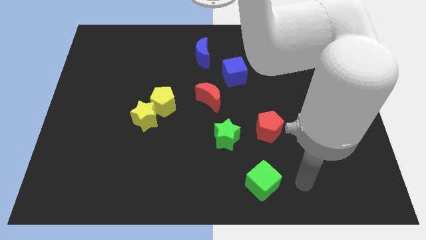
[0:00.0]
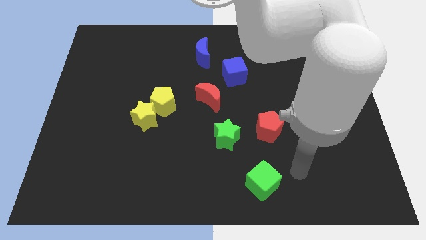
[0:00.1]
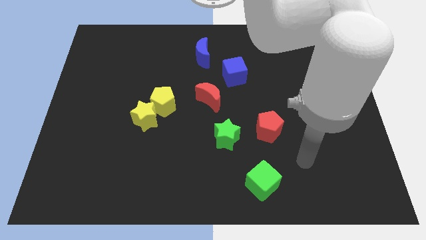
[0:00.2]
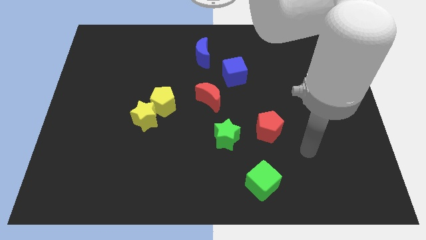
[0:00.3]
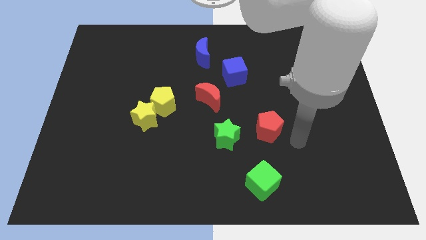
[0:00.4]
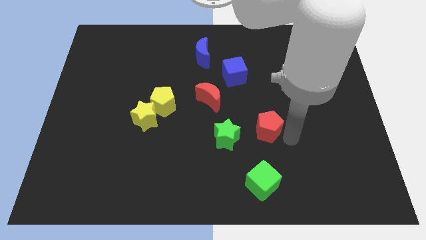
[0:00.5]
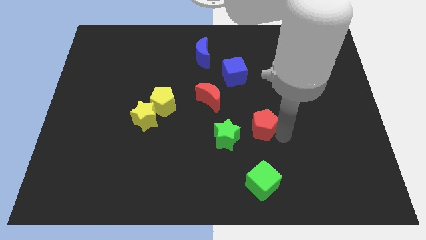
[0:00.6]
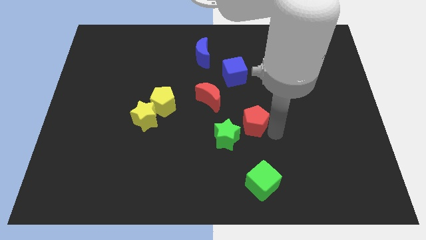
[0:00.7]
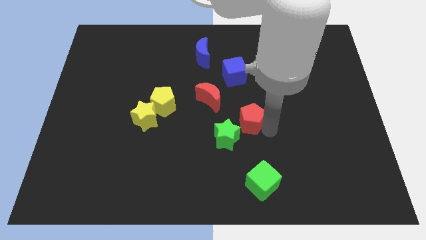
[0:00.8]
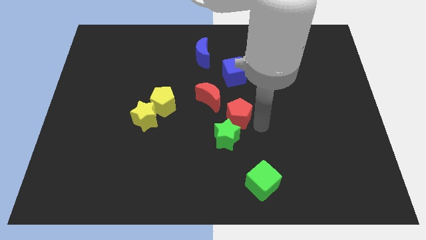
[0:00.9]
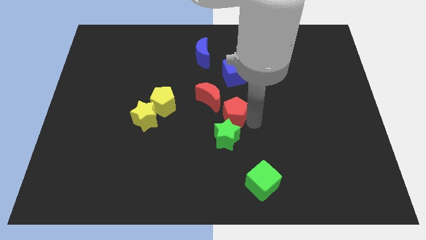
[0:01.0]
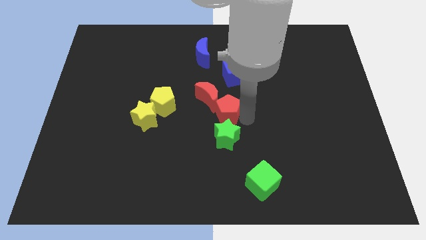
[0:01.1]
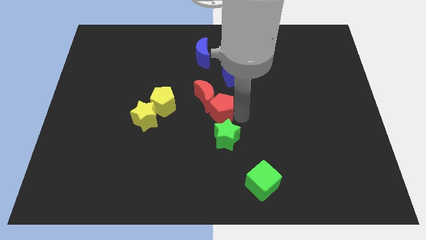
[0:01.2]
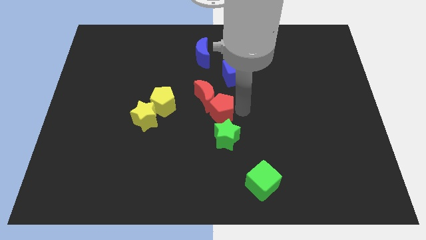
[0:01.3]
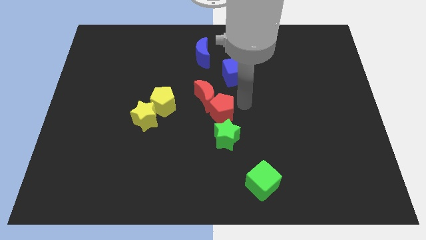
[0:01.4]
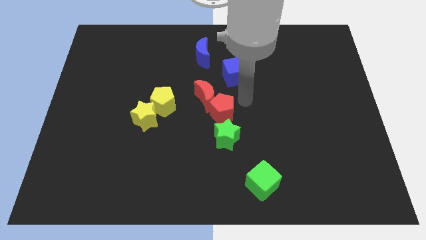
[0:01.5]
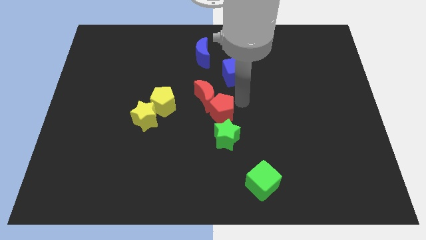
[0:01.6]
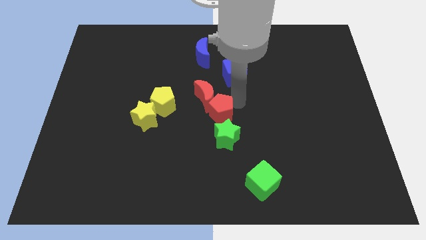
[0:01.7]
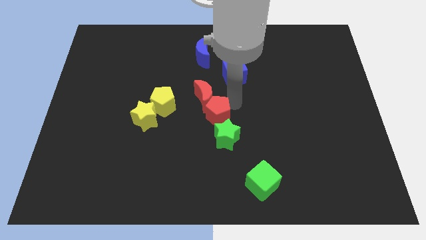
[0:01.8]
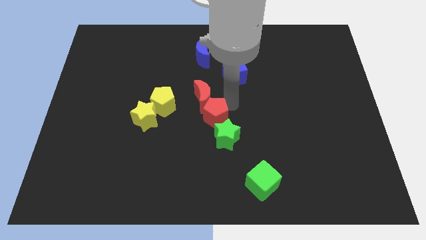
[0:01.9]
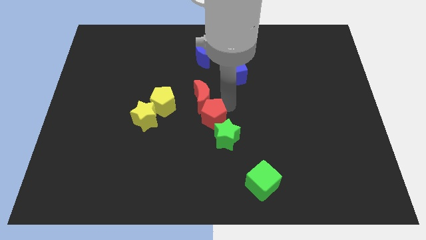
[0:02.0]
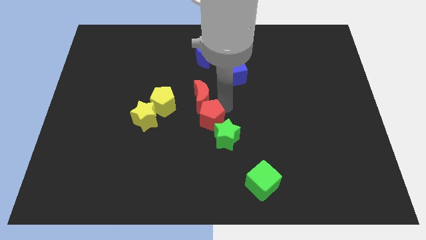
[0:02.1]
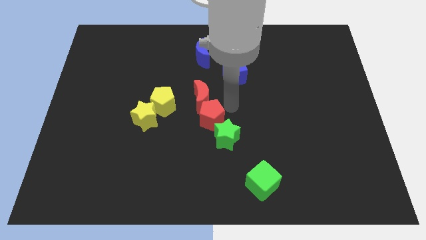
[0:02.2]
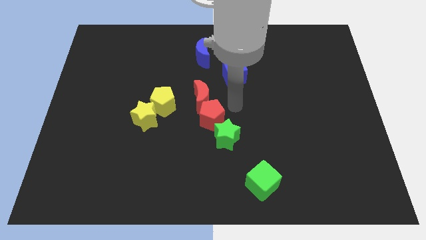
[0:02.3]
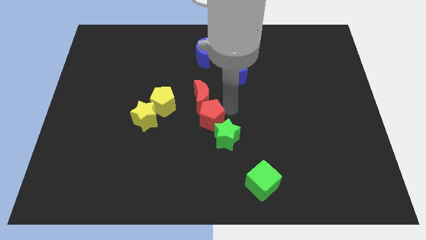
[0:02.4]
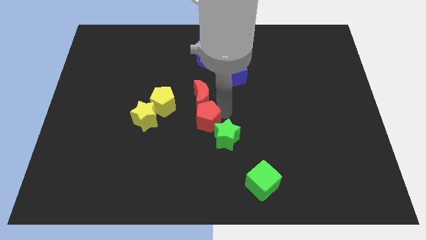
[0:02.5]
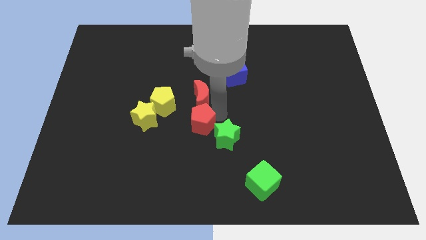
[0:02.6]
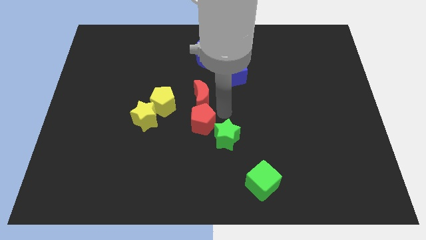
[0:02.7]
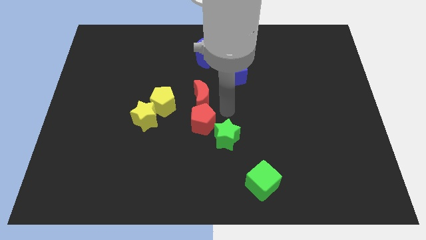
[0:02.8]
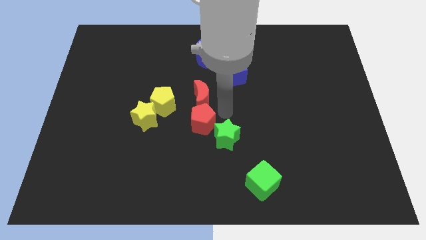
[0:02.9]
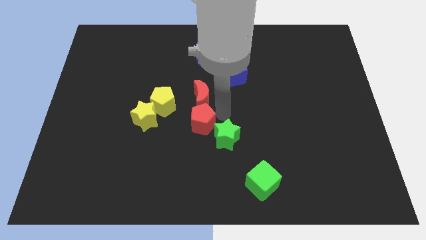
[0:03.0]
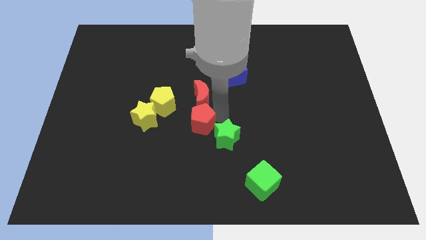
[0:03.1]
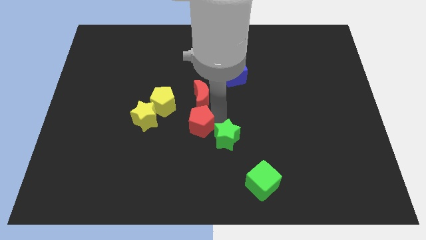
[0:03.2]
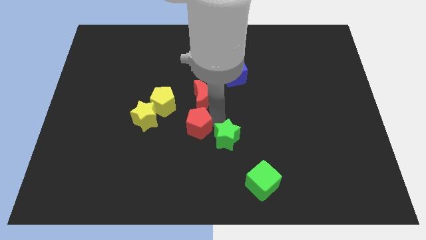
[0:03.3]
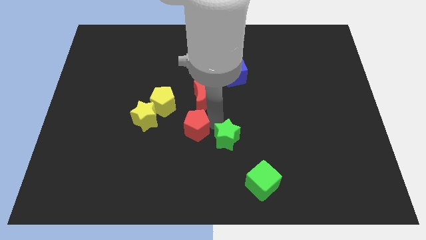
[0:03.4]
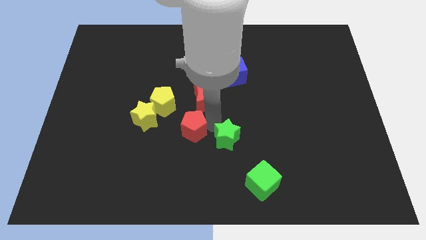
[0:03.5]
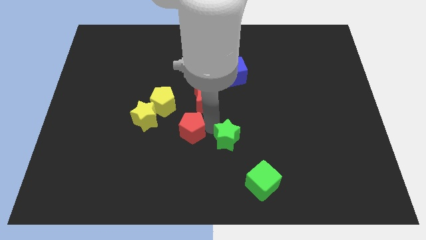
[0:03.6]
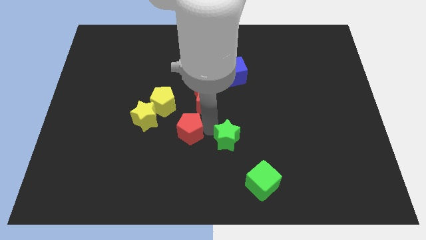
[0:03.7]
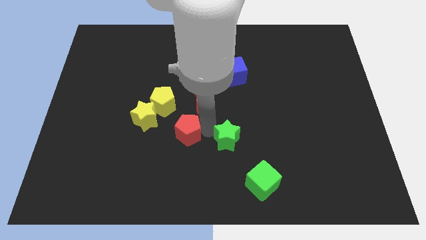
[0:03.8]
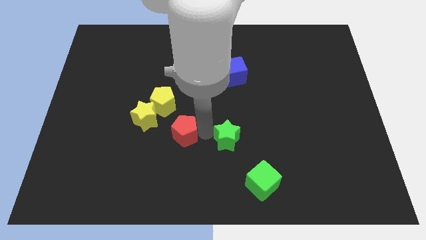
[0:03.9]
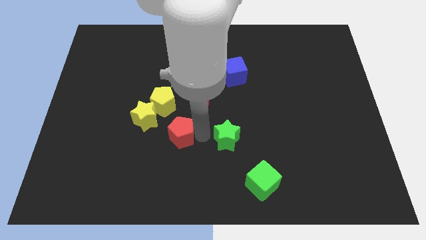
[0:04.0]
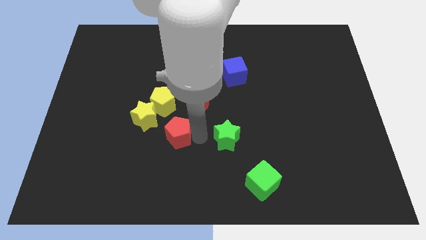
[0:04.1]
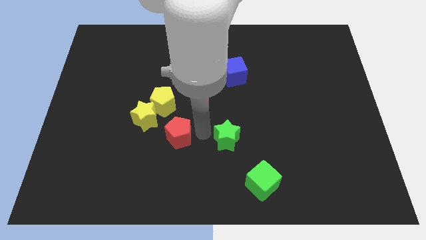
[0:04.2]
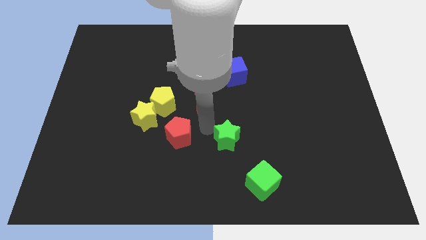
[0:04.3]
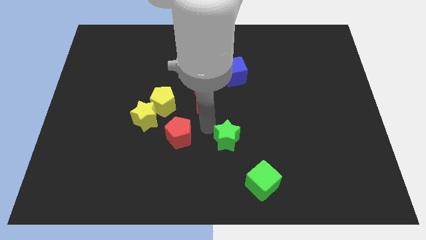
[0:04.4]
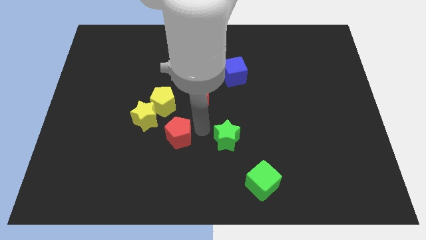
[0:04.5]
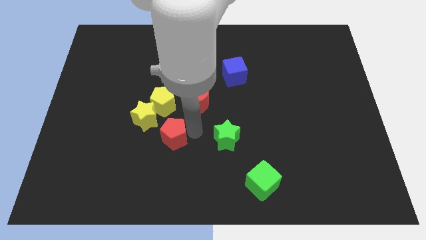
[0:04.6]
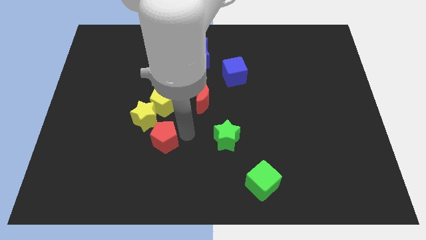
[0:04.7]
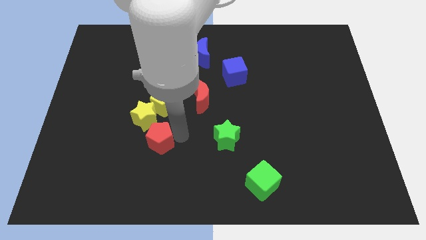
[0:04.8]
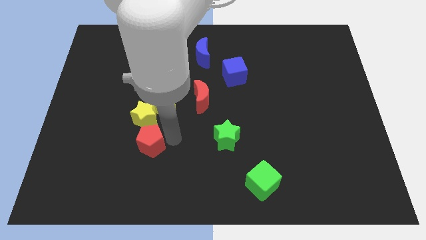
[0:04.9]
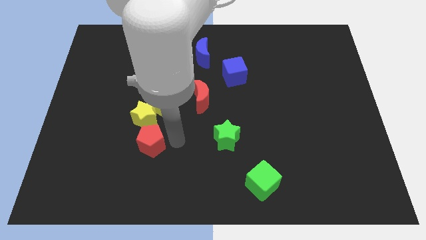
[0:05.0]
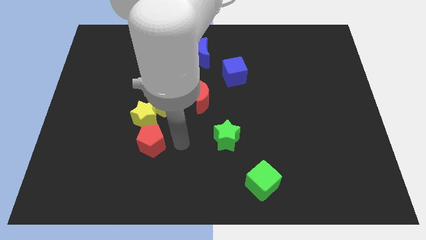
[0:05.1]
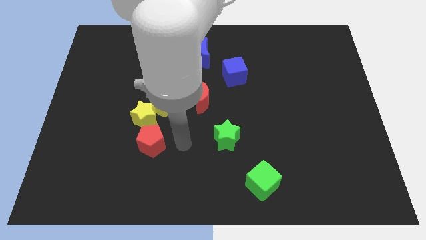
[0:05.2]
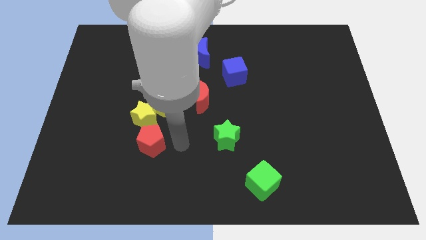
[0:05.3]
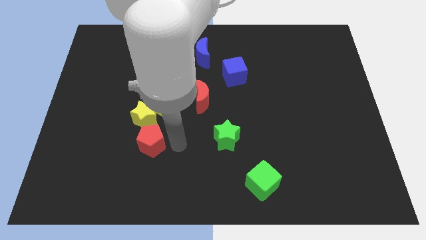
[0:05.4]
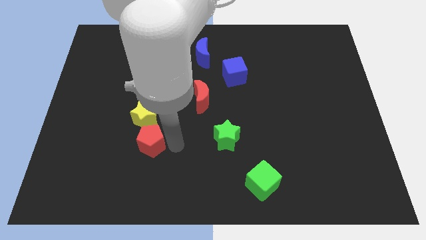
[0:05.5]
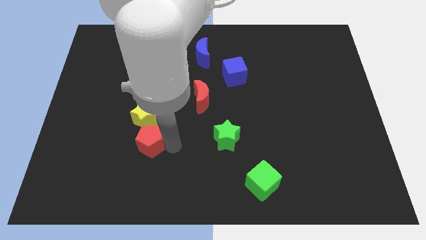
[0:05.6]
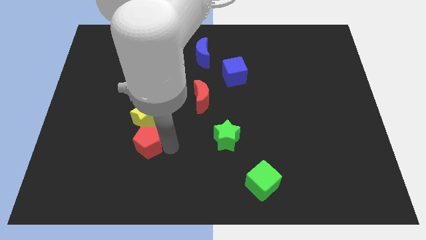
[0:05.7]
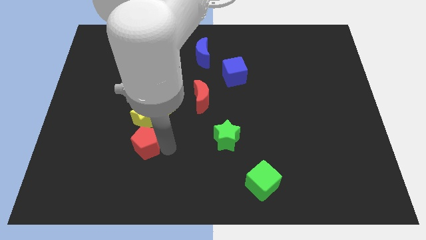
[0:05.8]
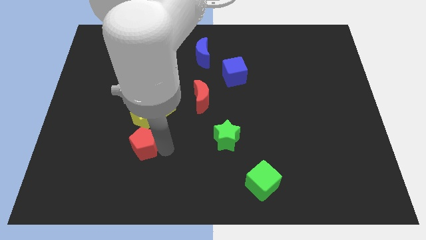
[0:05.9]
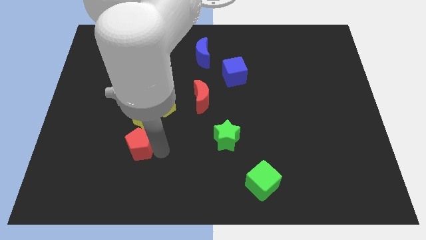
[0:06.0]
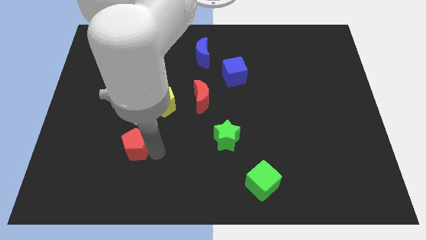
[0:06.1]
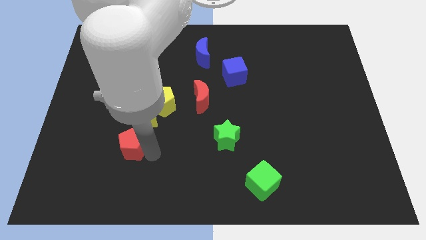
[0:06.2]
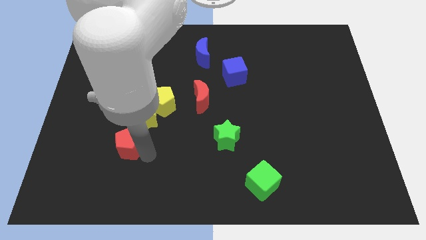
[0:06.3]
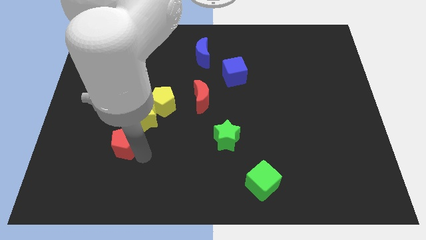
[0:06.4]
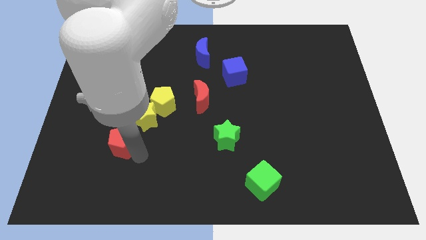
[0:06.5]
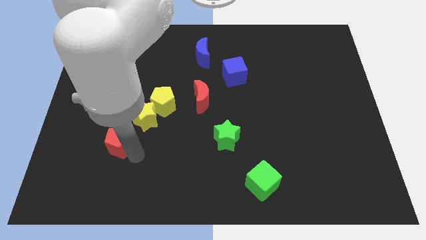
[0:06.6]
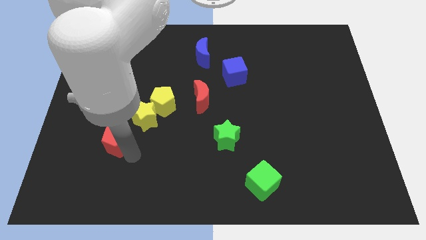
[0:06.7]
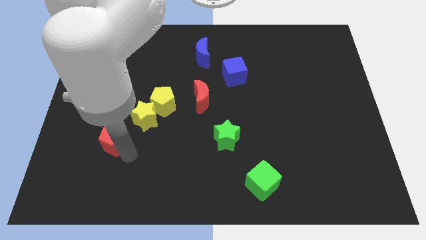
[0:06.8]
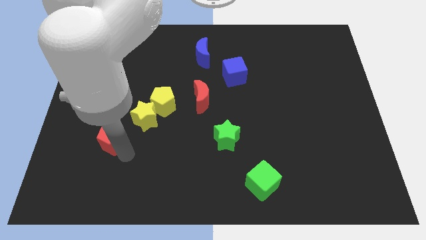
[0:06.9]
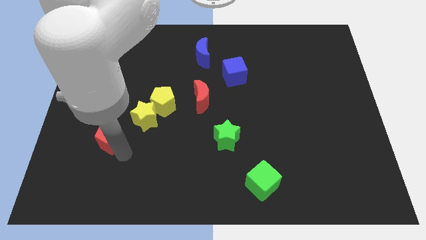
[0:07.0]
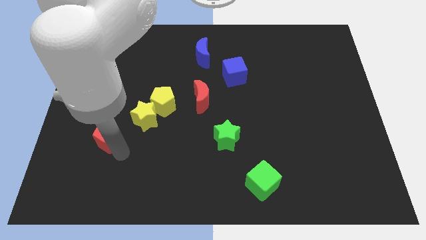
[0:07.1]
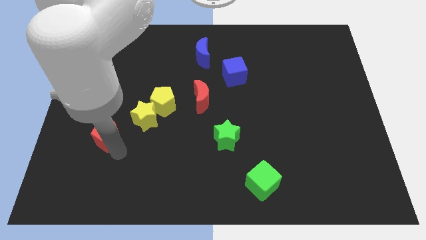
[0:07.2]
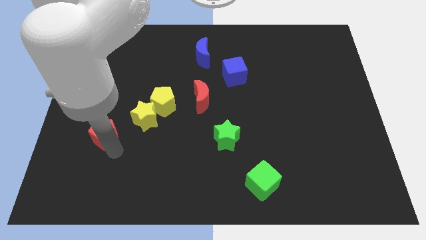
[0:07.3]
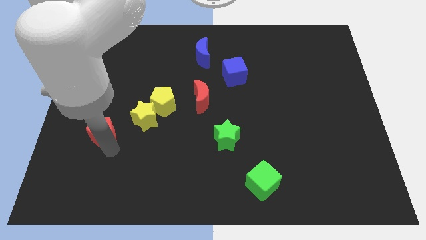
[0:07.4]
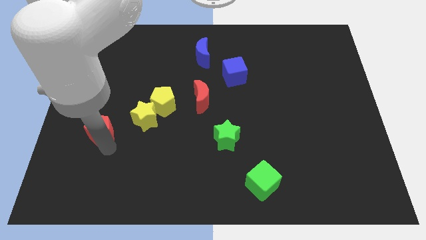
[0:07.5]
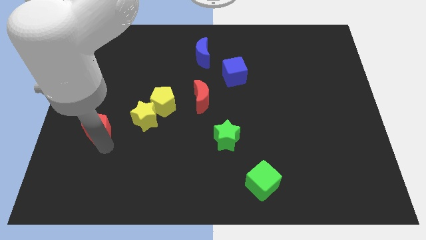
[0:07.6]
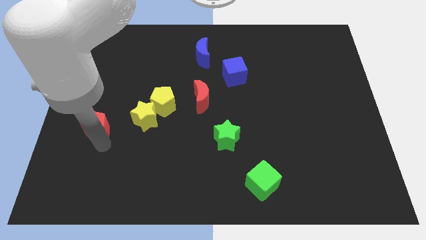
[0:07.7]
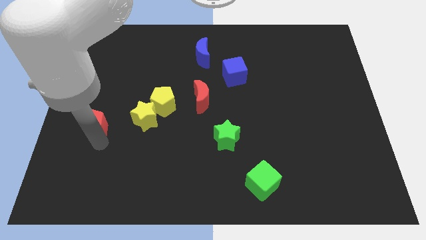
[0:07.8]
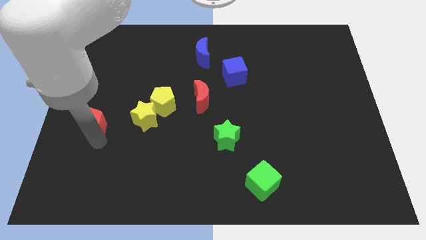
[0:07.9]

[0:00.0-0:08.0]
move the red pentagon to the left side of the board
